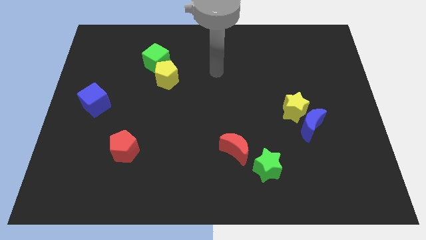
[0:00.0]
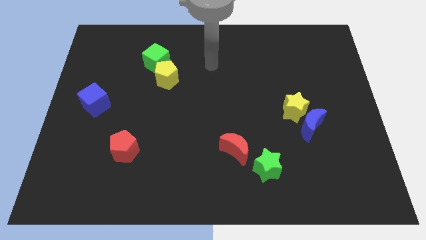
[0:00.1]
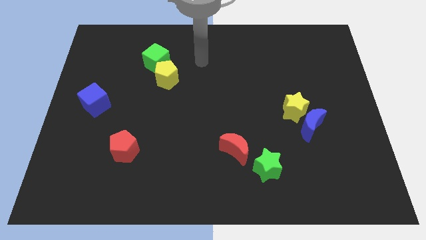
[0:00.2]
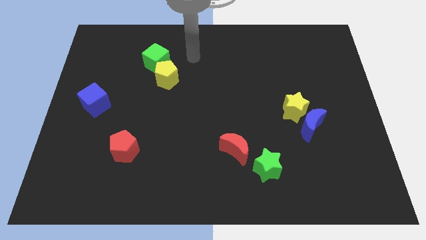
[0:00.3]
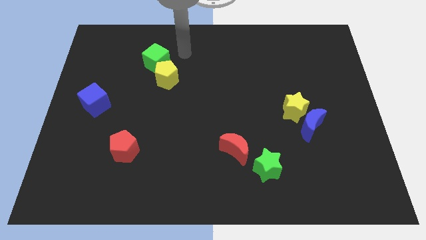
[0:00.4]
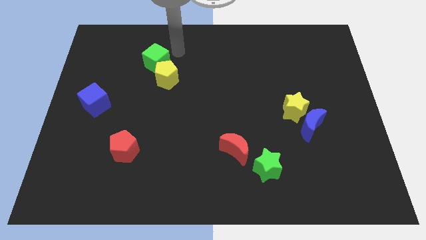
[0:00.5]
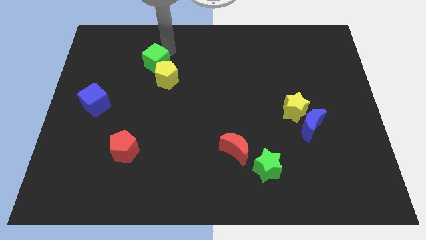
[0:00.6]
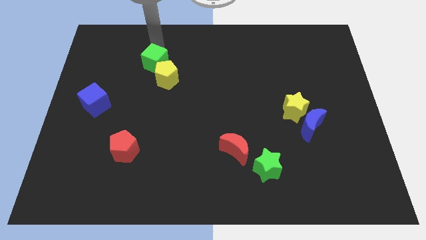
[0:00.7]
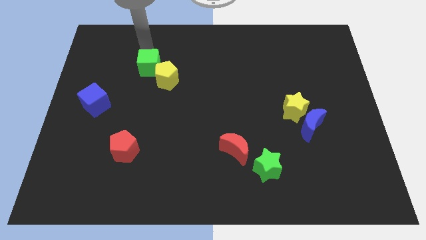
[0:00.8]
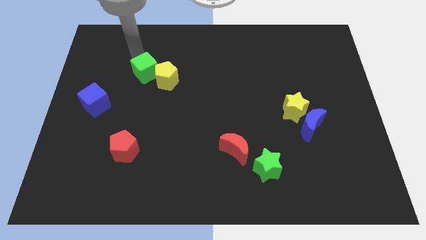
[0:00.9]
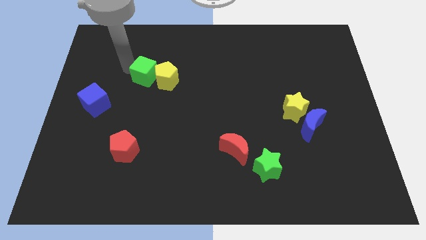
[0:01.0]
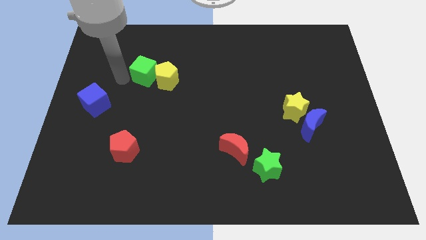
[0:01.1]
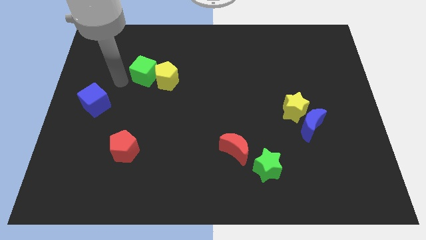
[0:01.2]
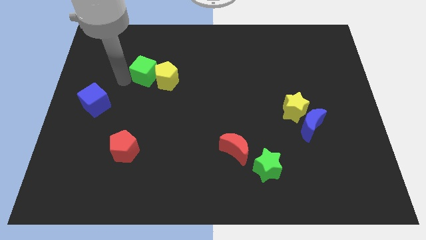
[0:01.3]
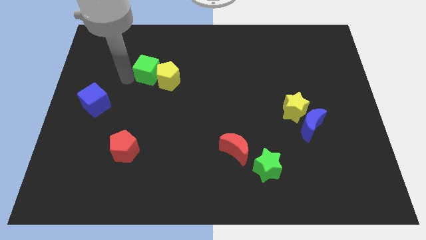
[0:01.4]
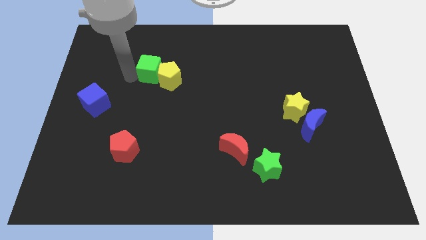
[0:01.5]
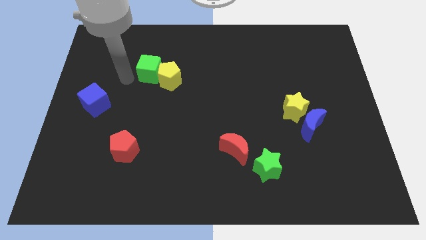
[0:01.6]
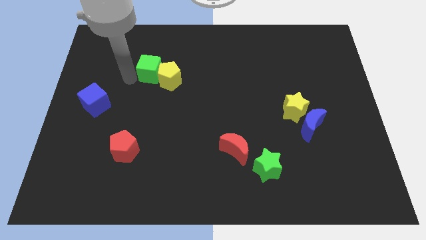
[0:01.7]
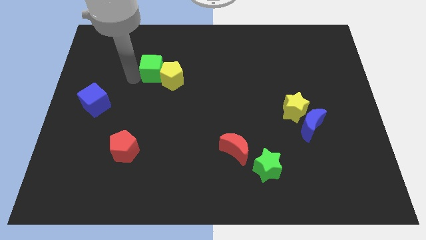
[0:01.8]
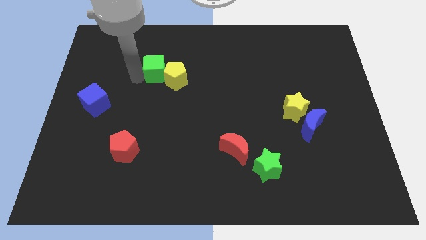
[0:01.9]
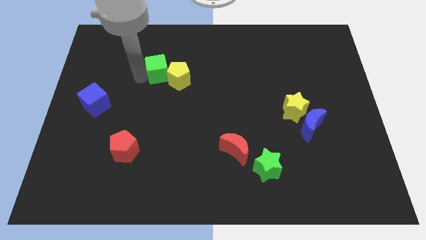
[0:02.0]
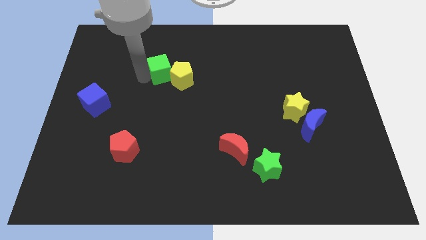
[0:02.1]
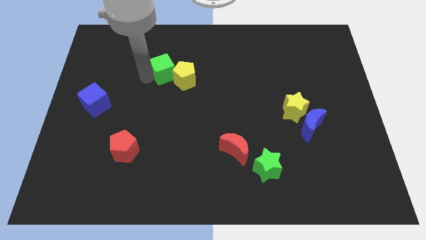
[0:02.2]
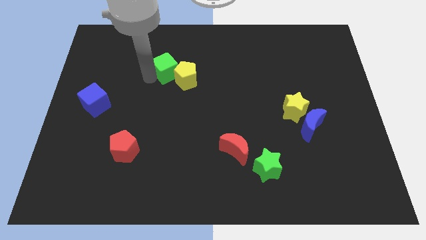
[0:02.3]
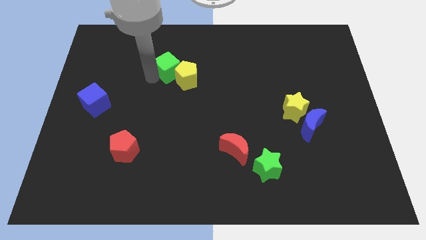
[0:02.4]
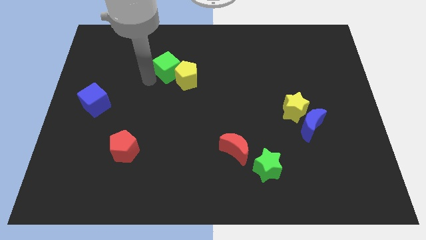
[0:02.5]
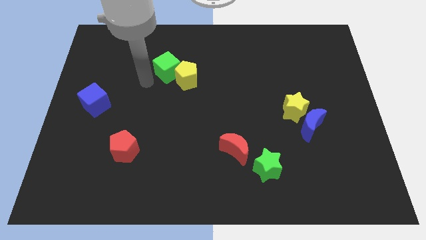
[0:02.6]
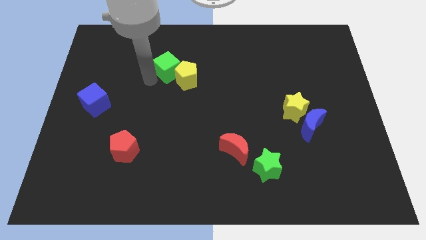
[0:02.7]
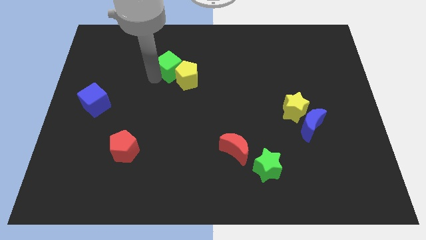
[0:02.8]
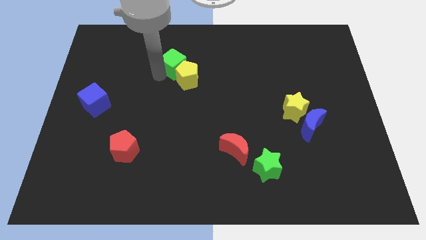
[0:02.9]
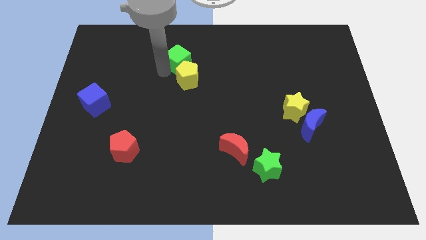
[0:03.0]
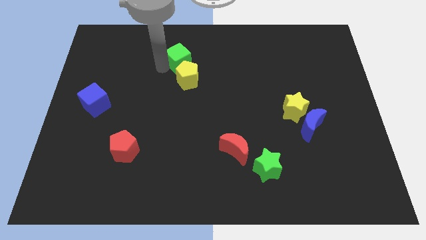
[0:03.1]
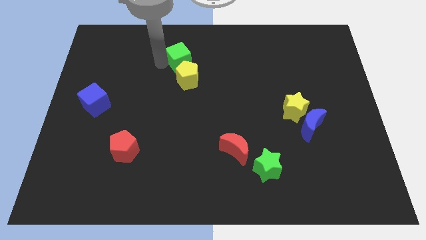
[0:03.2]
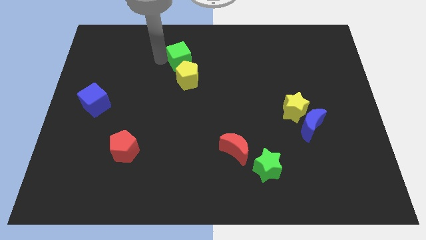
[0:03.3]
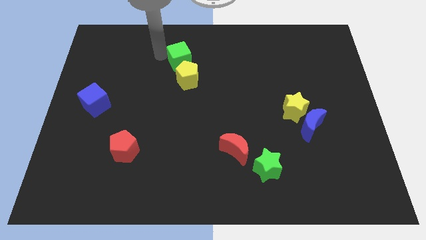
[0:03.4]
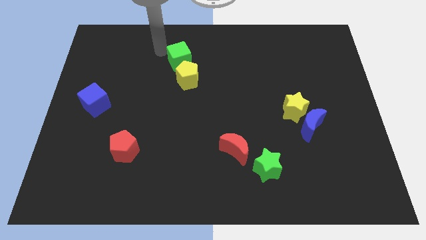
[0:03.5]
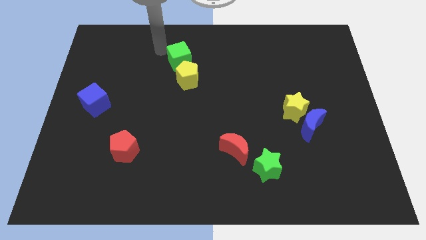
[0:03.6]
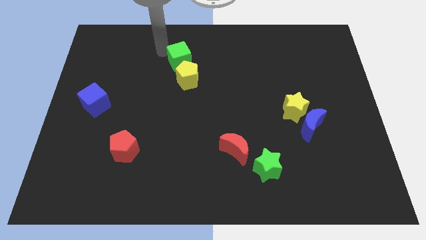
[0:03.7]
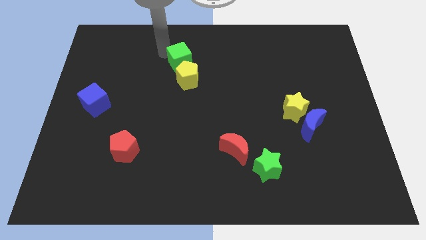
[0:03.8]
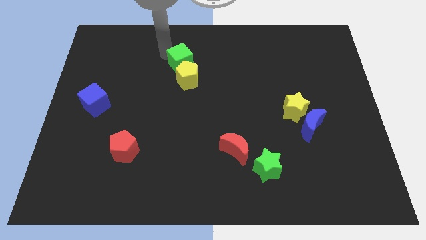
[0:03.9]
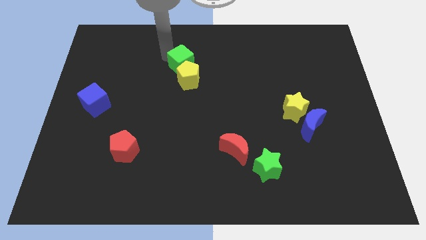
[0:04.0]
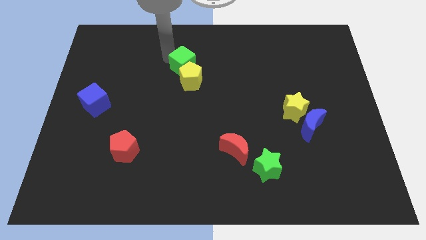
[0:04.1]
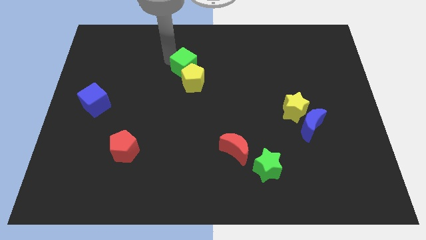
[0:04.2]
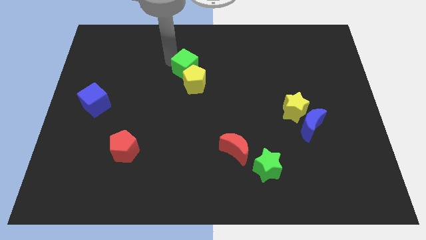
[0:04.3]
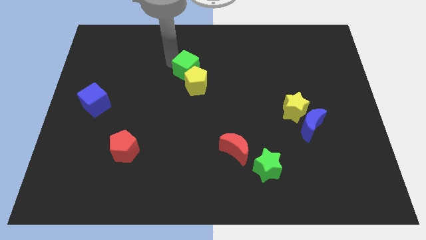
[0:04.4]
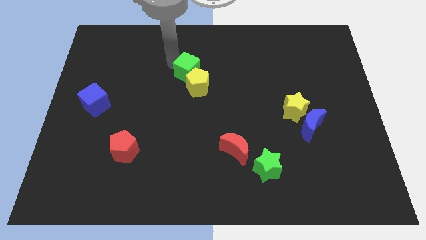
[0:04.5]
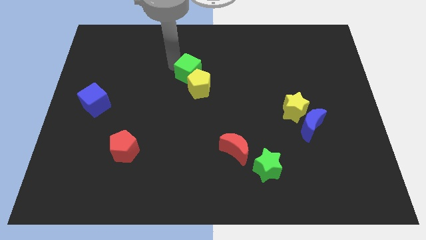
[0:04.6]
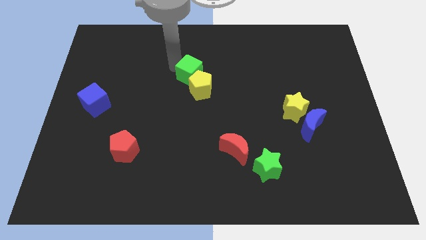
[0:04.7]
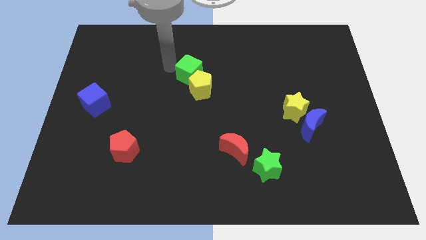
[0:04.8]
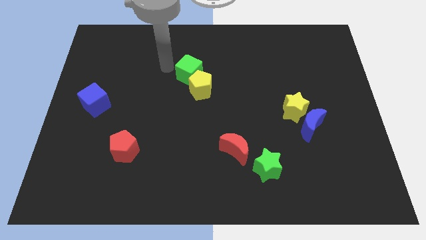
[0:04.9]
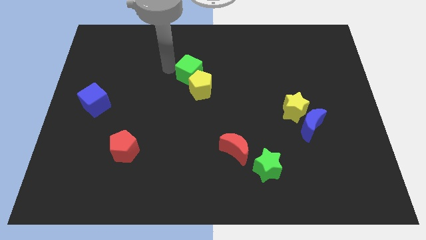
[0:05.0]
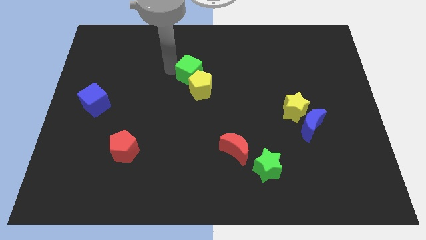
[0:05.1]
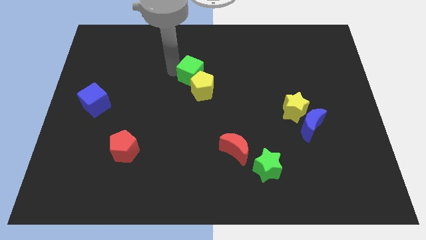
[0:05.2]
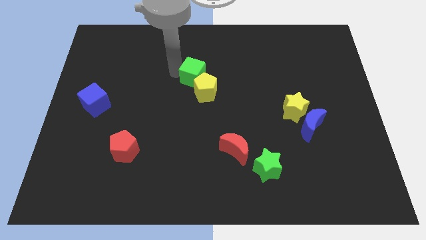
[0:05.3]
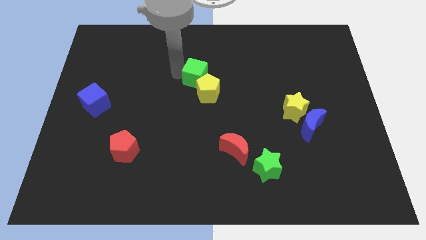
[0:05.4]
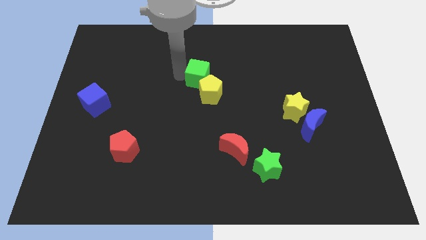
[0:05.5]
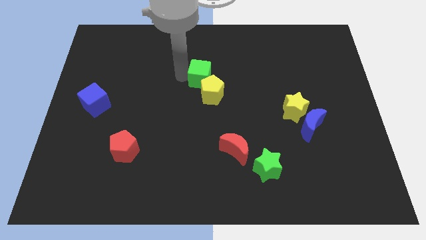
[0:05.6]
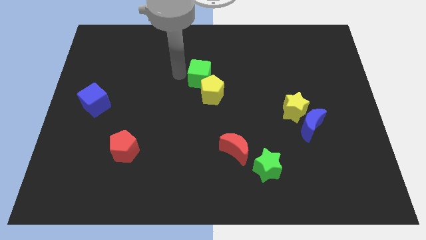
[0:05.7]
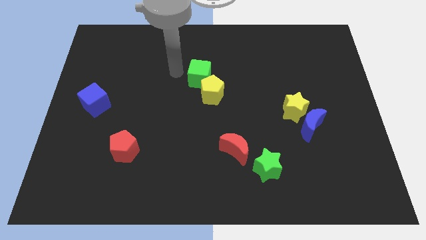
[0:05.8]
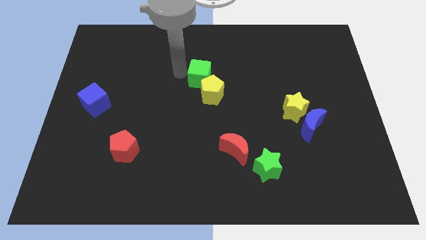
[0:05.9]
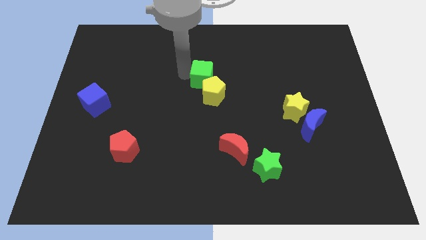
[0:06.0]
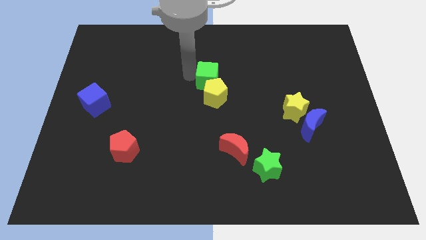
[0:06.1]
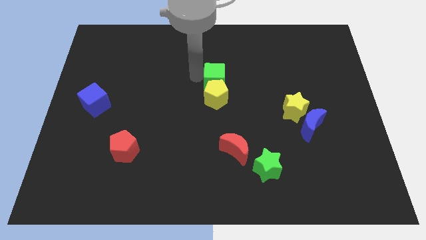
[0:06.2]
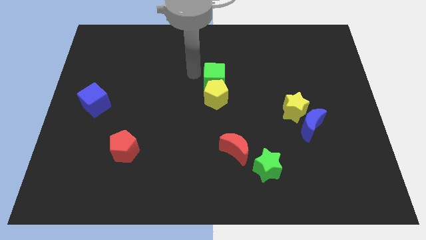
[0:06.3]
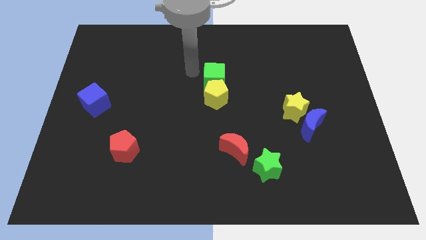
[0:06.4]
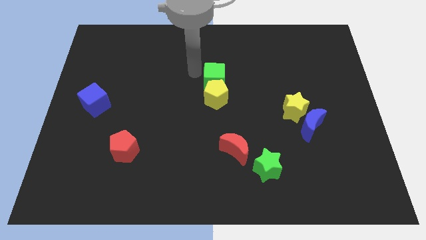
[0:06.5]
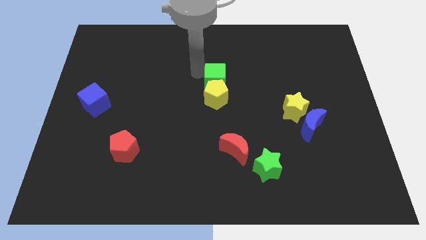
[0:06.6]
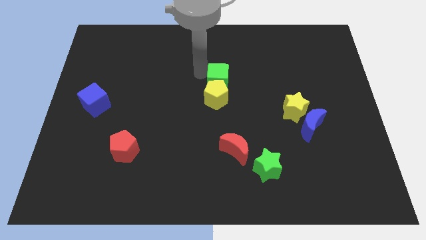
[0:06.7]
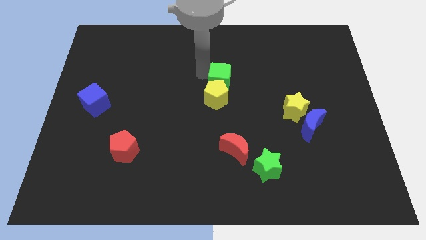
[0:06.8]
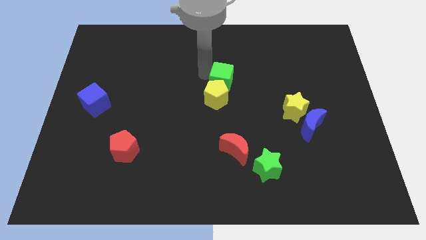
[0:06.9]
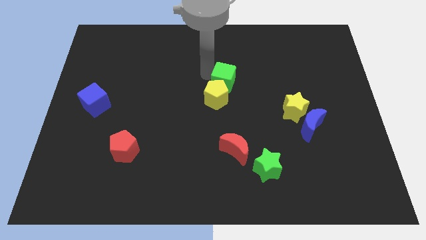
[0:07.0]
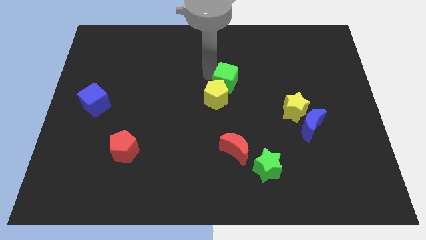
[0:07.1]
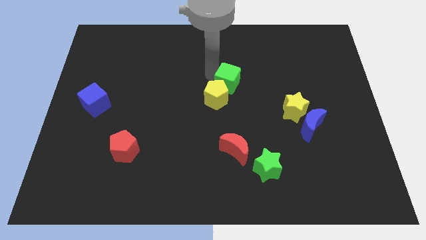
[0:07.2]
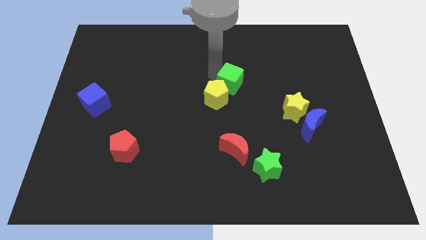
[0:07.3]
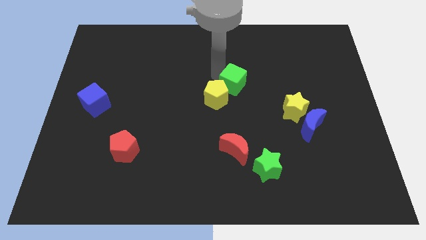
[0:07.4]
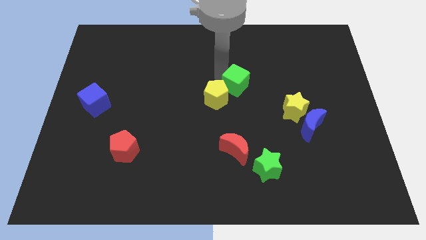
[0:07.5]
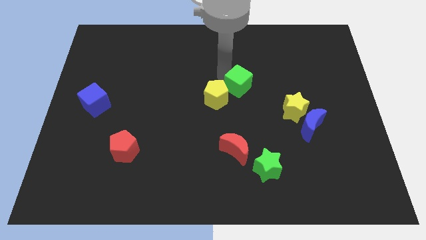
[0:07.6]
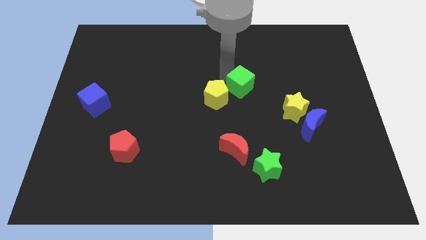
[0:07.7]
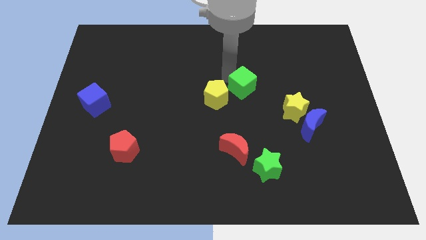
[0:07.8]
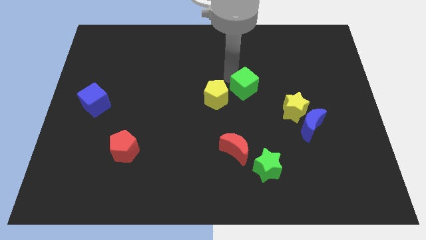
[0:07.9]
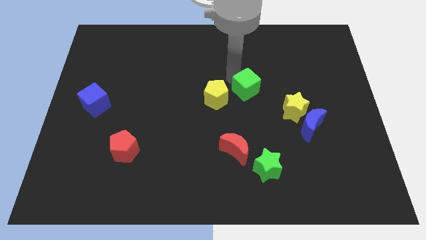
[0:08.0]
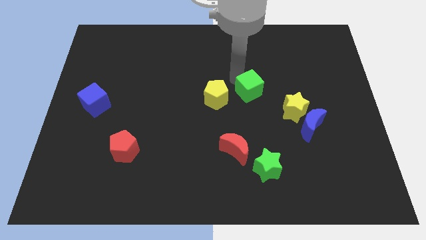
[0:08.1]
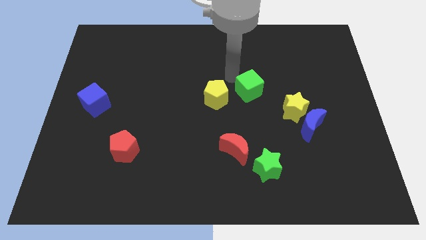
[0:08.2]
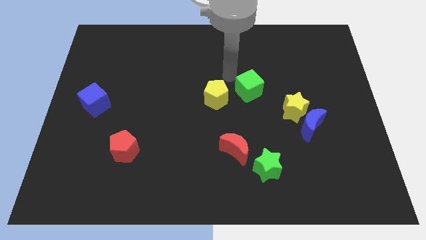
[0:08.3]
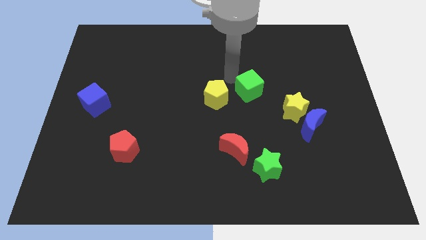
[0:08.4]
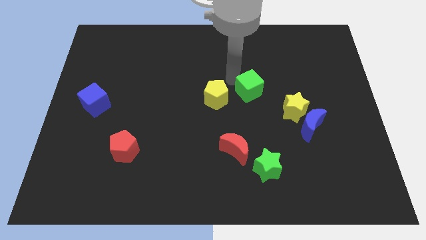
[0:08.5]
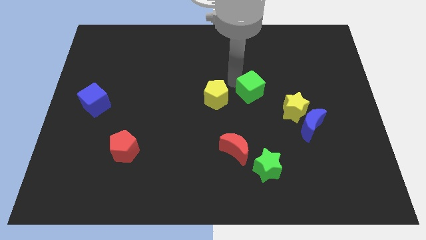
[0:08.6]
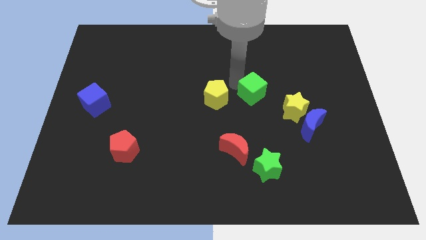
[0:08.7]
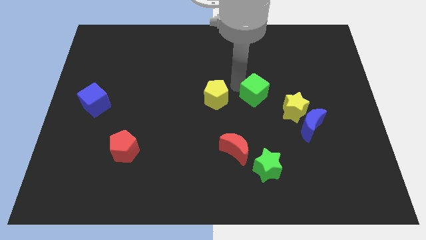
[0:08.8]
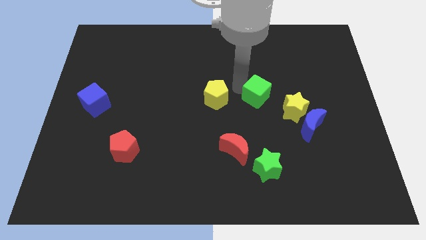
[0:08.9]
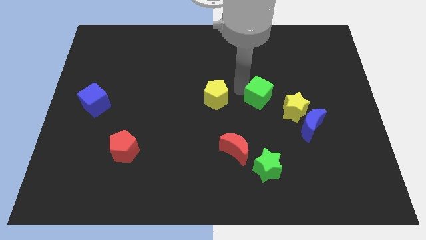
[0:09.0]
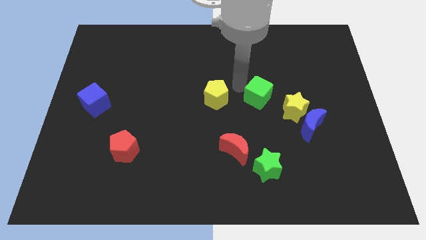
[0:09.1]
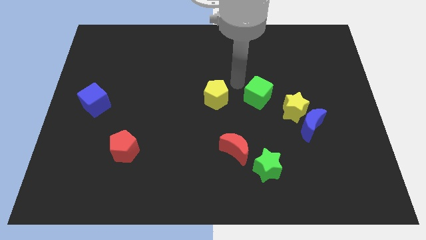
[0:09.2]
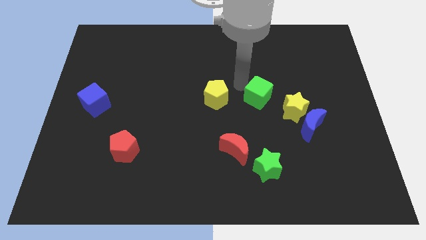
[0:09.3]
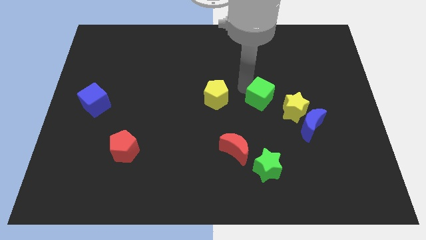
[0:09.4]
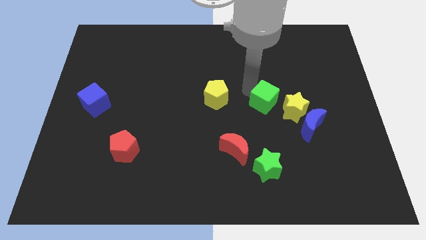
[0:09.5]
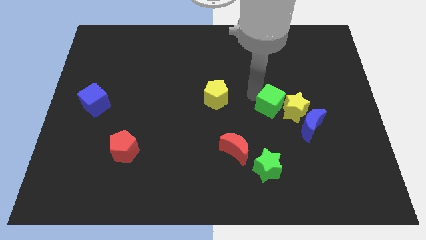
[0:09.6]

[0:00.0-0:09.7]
move the green cube to the yellow star
